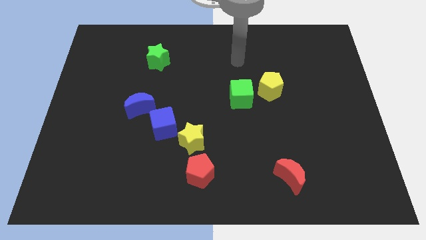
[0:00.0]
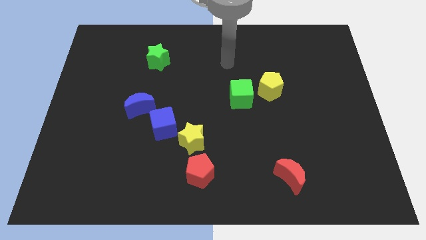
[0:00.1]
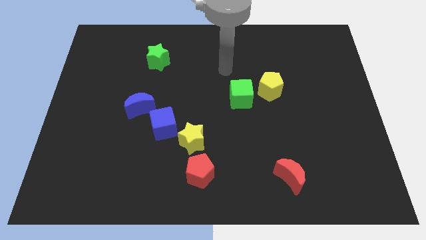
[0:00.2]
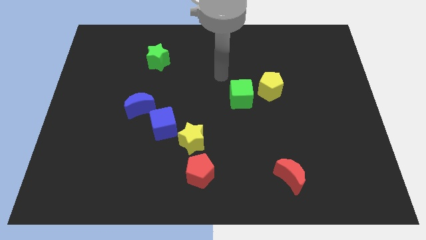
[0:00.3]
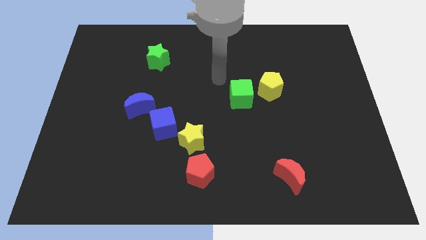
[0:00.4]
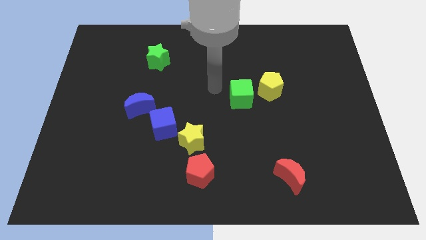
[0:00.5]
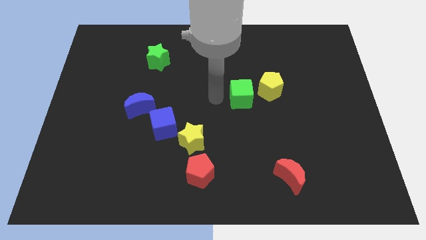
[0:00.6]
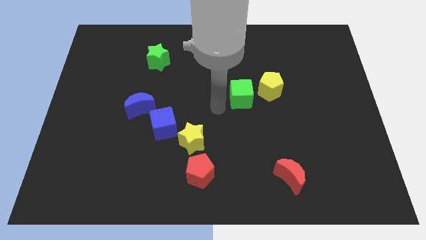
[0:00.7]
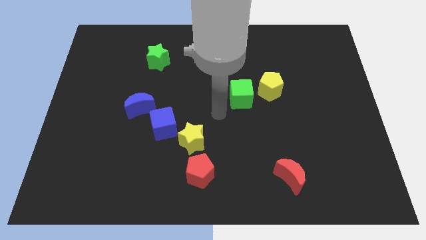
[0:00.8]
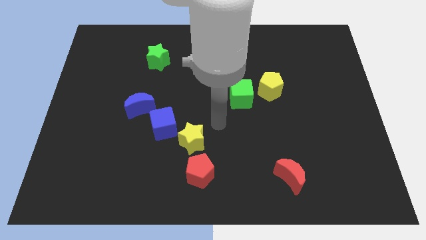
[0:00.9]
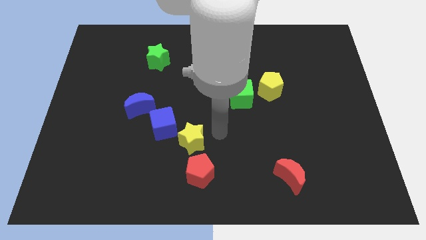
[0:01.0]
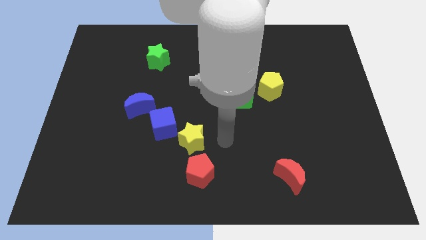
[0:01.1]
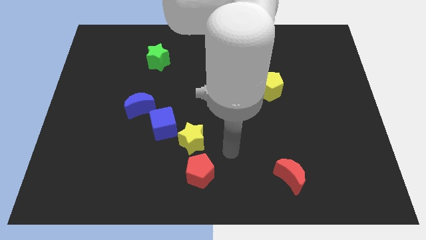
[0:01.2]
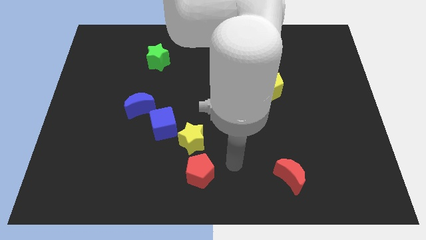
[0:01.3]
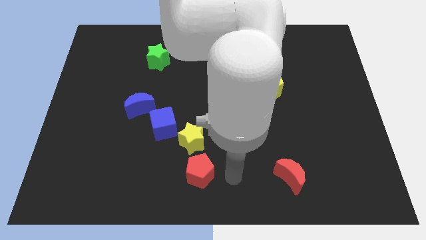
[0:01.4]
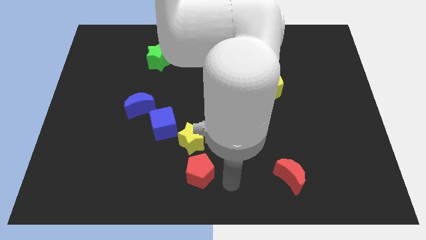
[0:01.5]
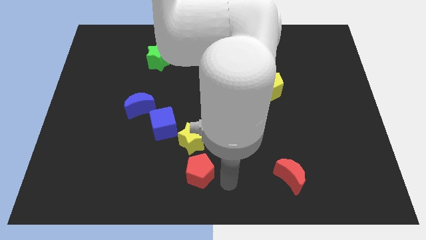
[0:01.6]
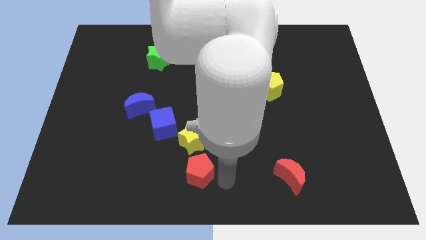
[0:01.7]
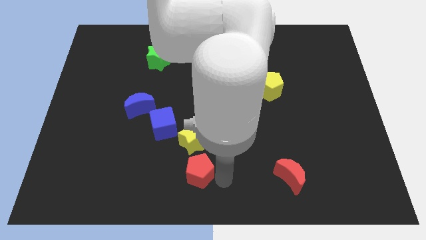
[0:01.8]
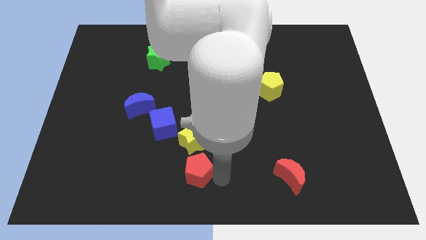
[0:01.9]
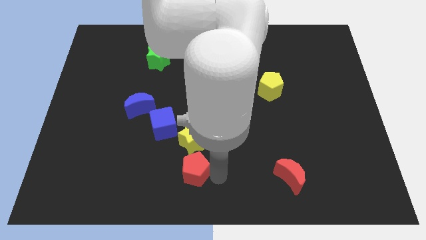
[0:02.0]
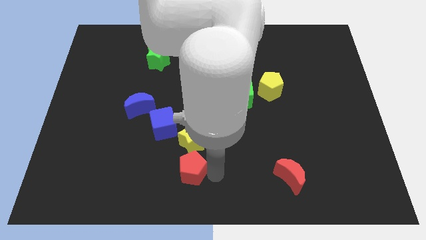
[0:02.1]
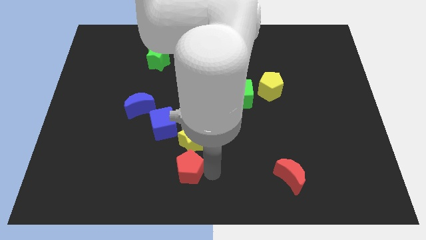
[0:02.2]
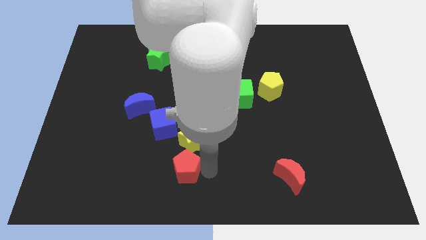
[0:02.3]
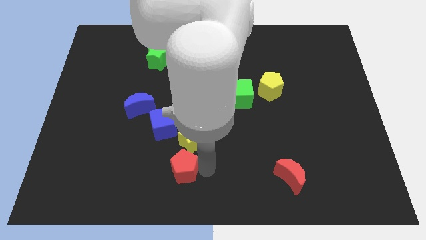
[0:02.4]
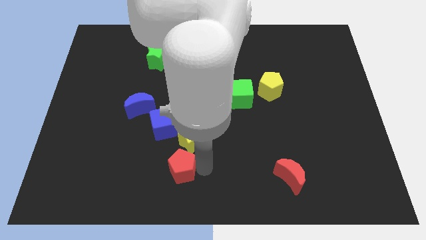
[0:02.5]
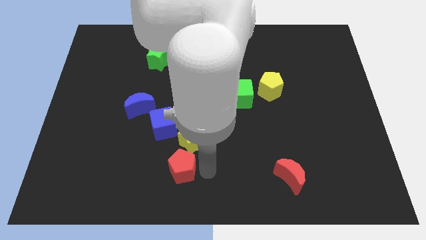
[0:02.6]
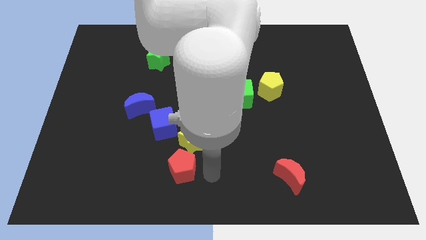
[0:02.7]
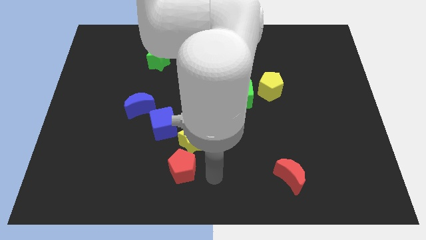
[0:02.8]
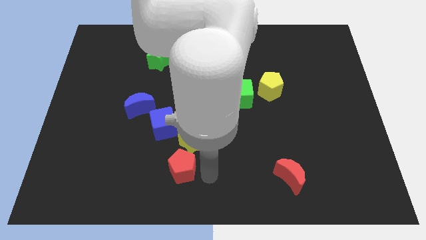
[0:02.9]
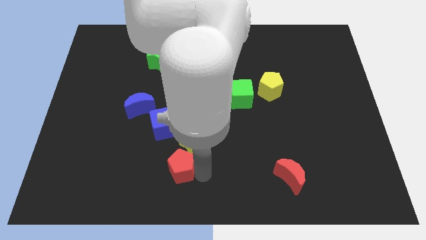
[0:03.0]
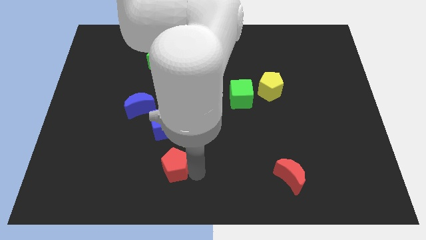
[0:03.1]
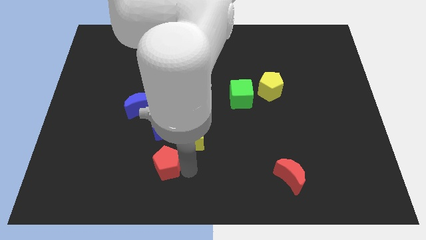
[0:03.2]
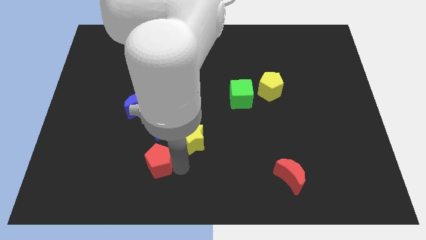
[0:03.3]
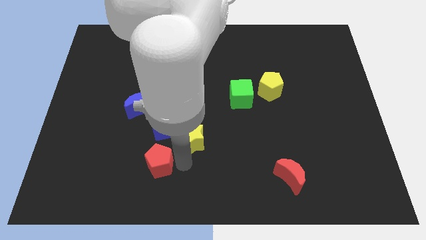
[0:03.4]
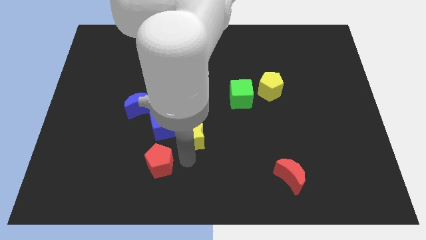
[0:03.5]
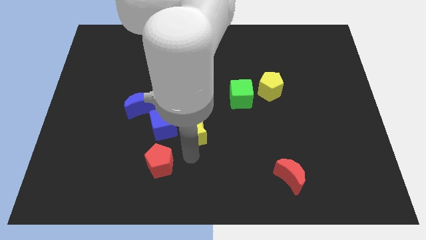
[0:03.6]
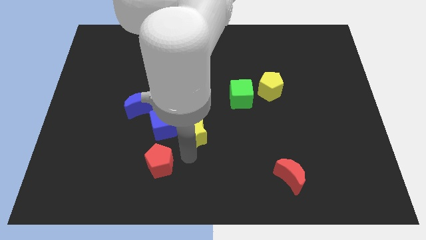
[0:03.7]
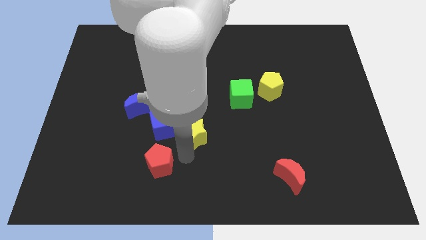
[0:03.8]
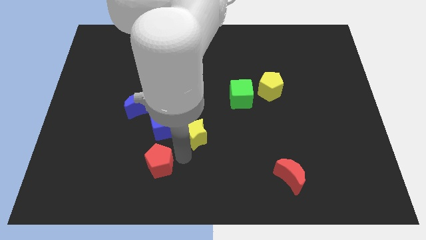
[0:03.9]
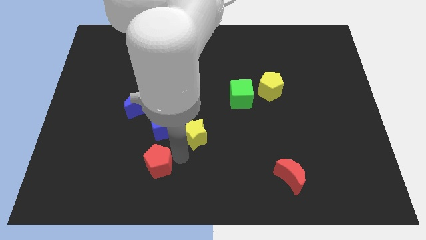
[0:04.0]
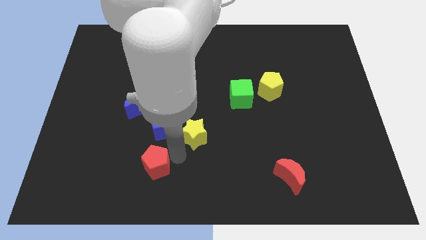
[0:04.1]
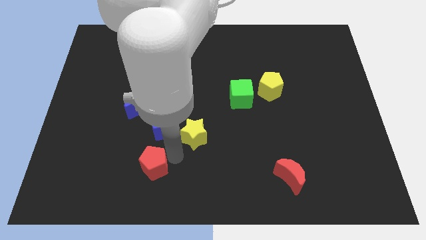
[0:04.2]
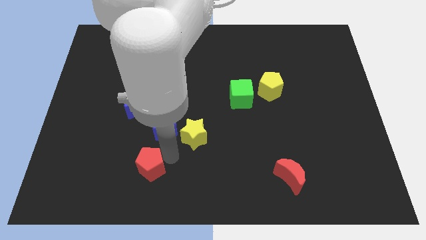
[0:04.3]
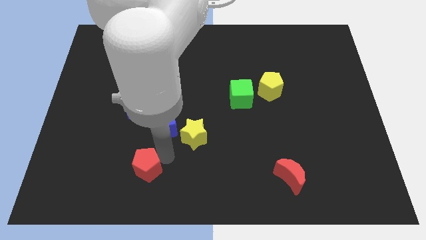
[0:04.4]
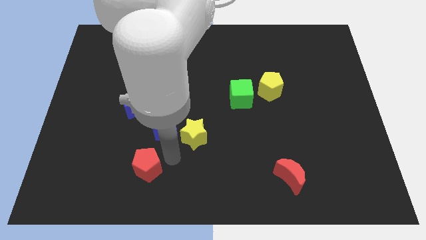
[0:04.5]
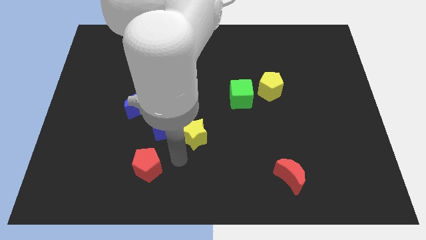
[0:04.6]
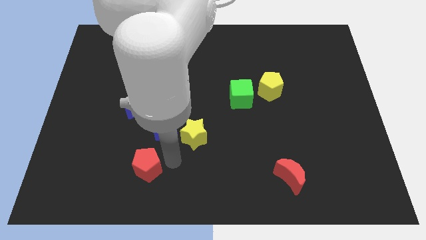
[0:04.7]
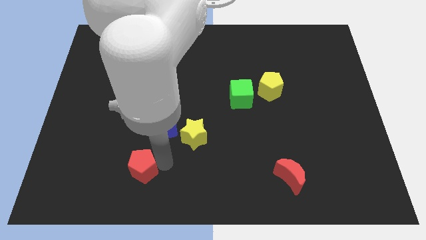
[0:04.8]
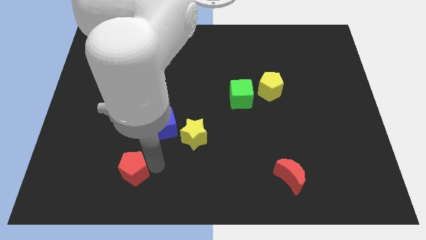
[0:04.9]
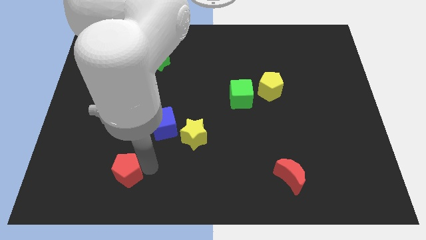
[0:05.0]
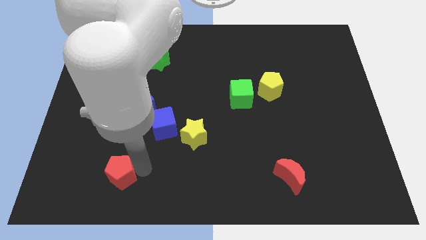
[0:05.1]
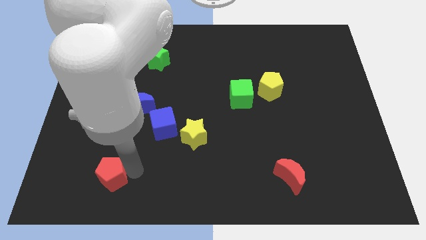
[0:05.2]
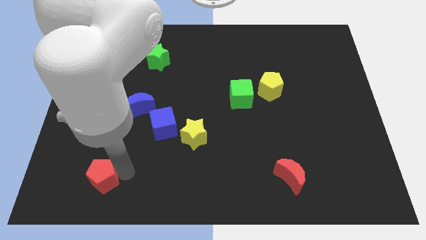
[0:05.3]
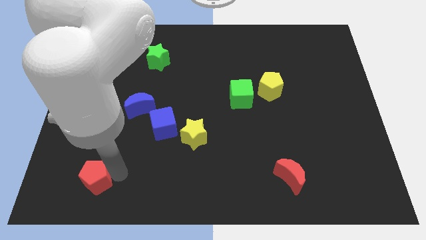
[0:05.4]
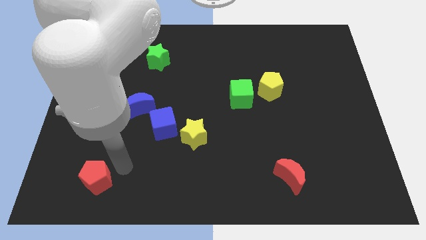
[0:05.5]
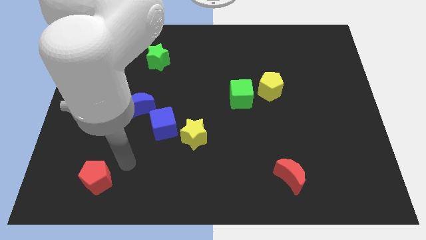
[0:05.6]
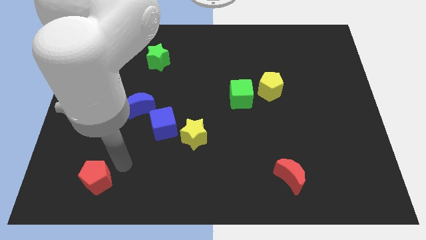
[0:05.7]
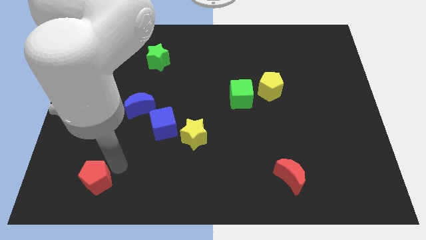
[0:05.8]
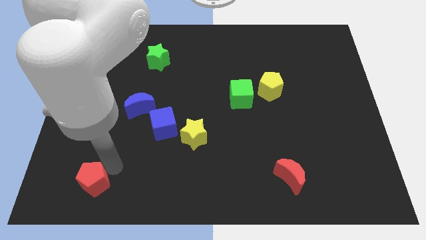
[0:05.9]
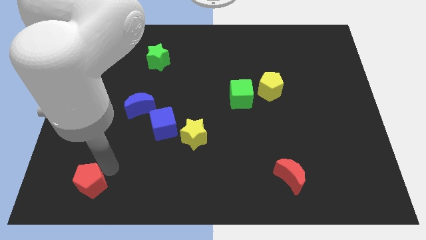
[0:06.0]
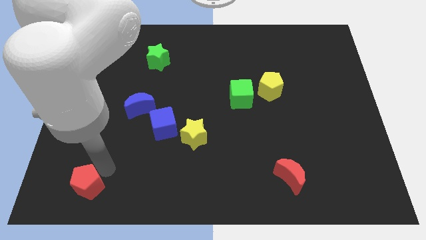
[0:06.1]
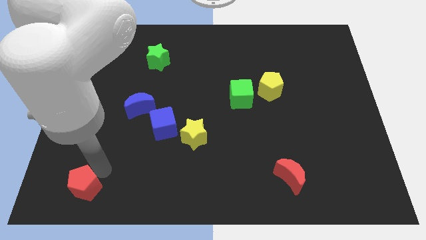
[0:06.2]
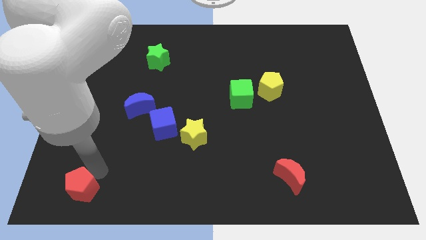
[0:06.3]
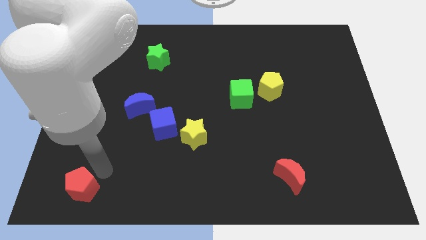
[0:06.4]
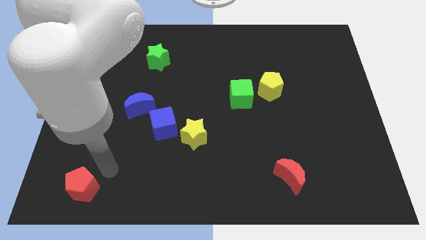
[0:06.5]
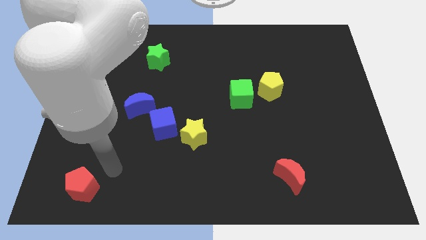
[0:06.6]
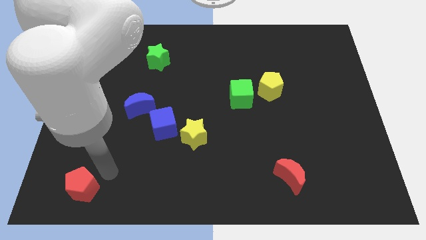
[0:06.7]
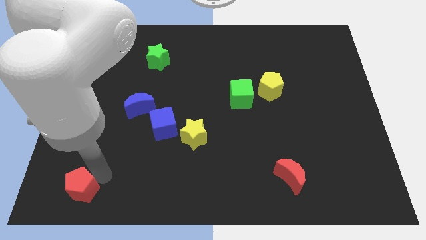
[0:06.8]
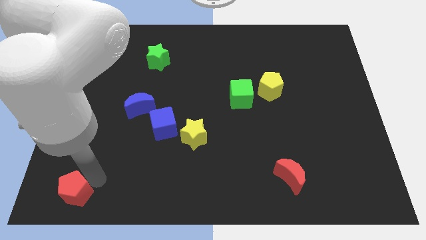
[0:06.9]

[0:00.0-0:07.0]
slide the red pentagon to the bottom left of the board
